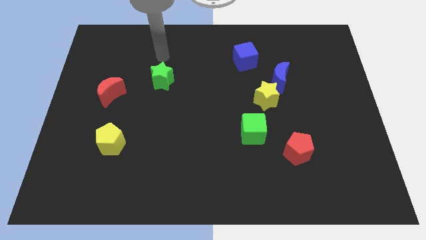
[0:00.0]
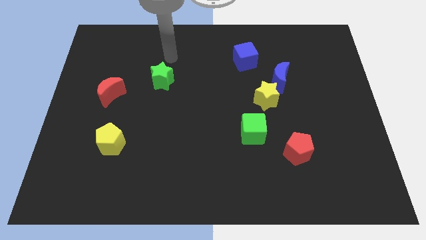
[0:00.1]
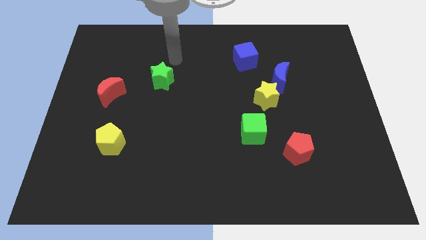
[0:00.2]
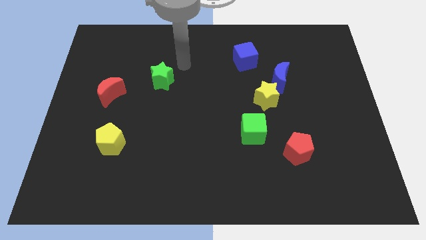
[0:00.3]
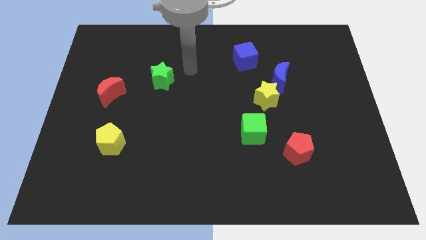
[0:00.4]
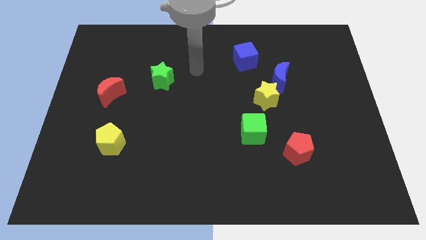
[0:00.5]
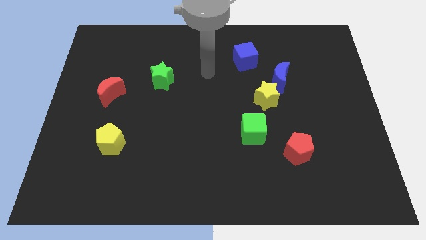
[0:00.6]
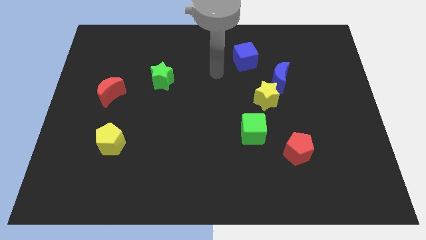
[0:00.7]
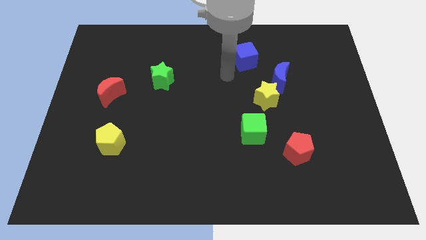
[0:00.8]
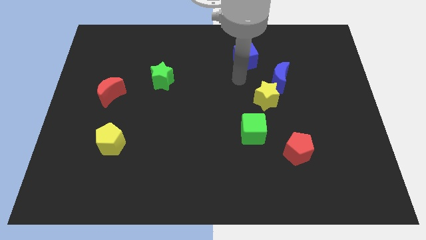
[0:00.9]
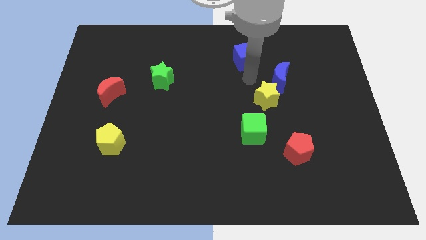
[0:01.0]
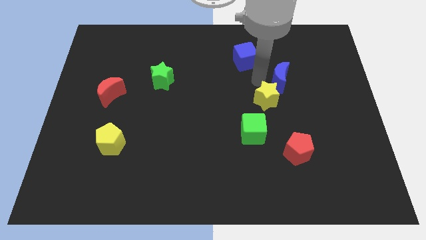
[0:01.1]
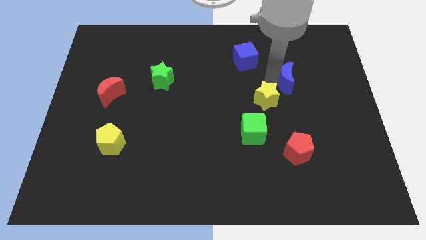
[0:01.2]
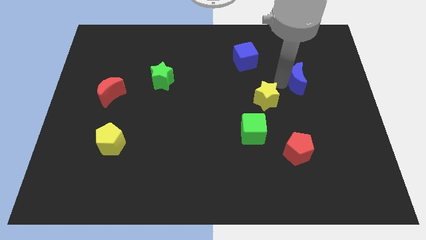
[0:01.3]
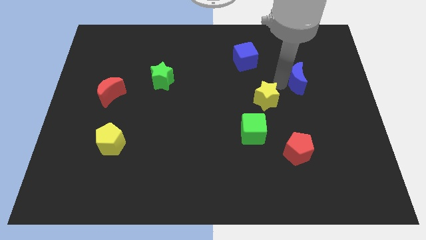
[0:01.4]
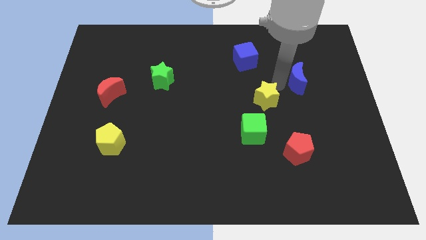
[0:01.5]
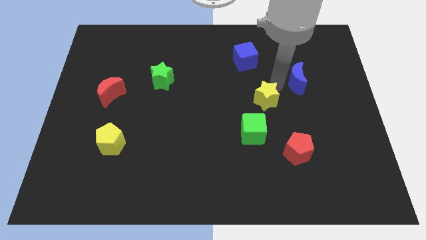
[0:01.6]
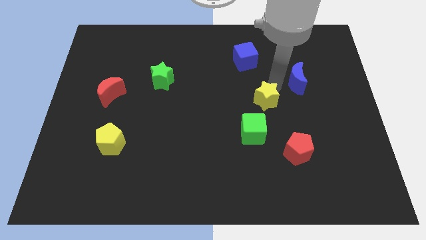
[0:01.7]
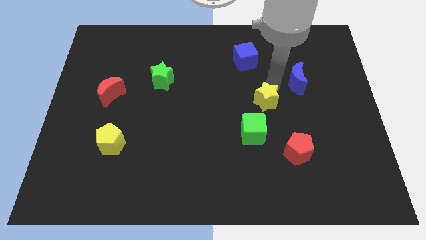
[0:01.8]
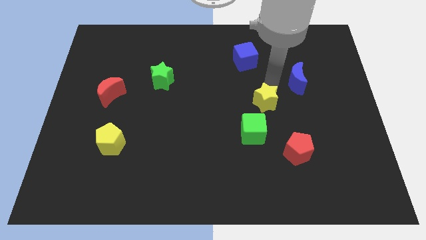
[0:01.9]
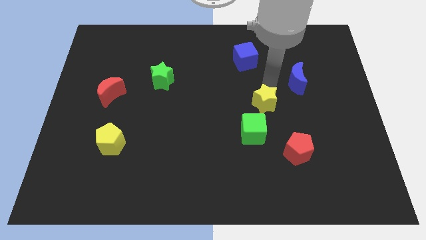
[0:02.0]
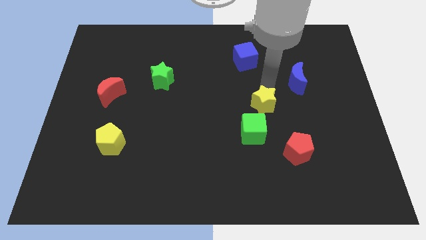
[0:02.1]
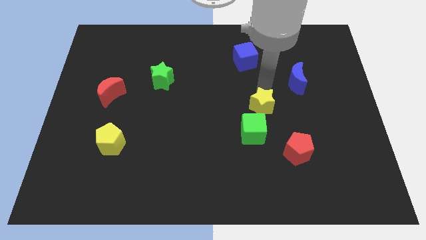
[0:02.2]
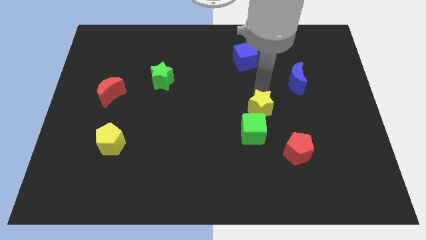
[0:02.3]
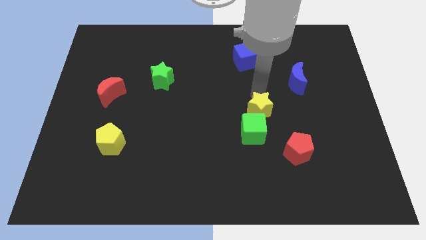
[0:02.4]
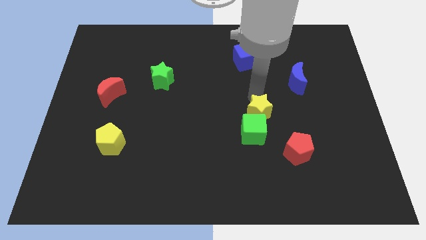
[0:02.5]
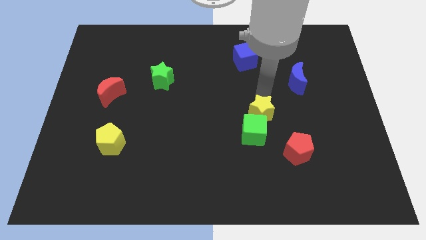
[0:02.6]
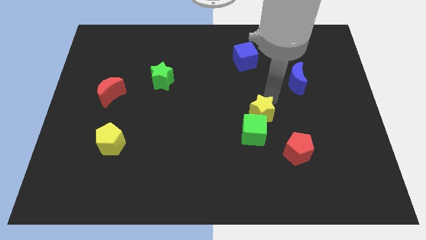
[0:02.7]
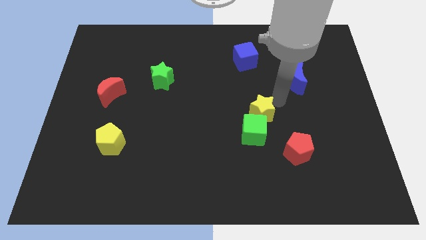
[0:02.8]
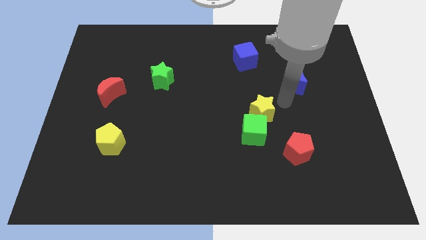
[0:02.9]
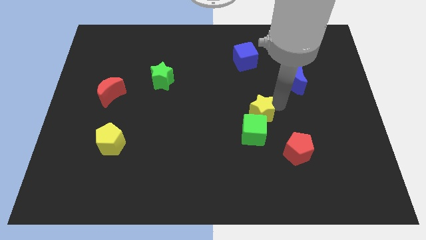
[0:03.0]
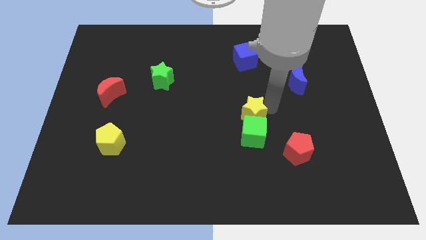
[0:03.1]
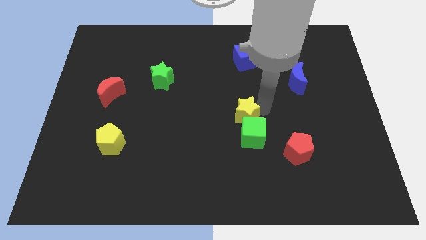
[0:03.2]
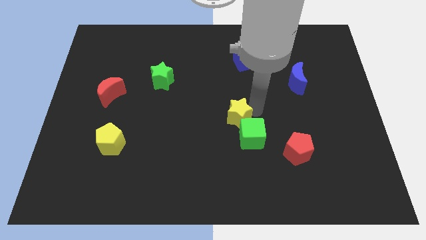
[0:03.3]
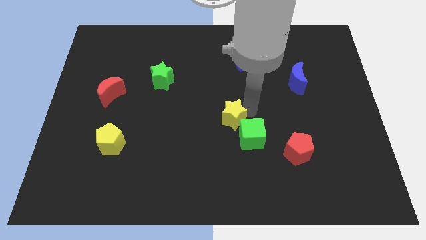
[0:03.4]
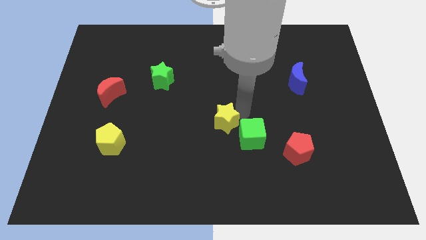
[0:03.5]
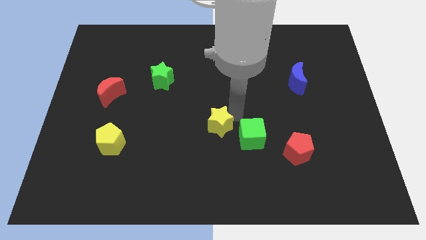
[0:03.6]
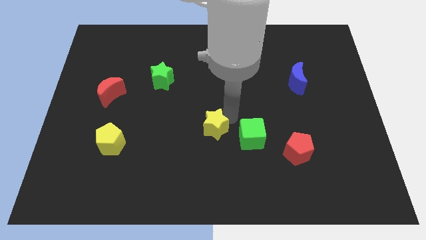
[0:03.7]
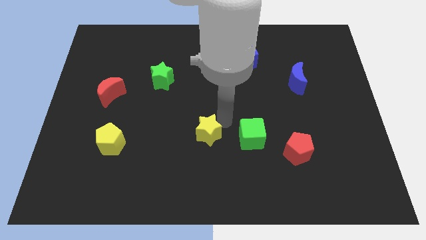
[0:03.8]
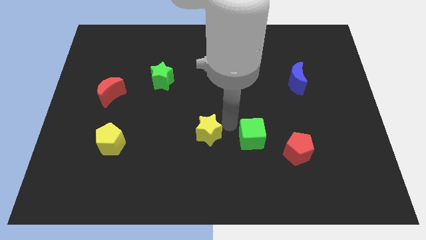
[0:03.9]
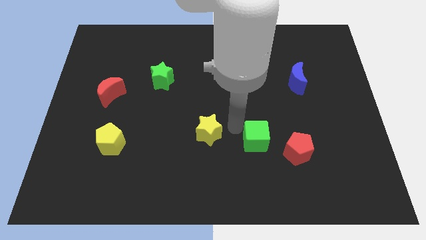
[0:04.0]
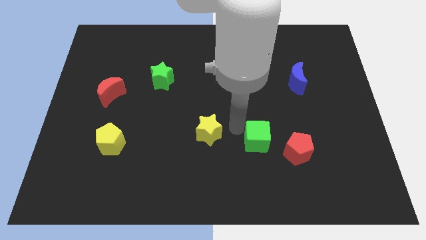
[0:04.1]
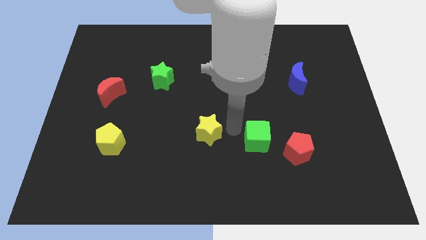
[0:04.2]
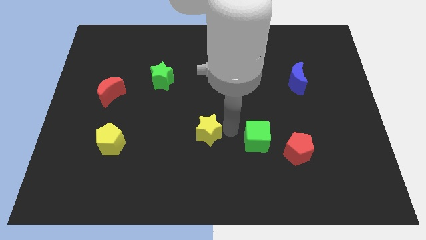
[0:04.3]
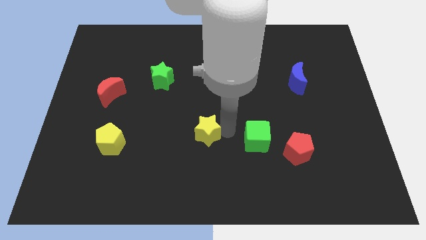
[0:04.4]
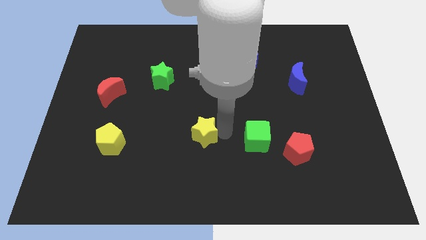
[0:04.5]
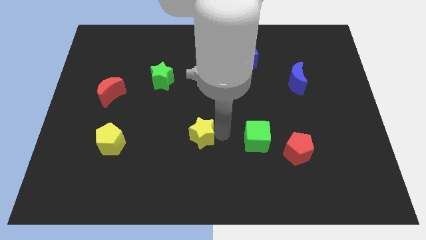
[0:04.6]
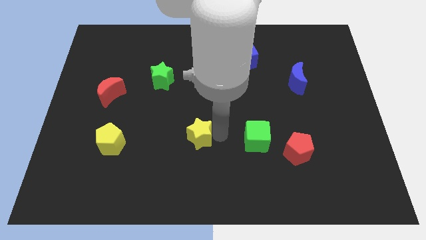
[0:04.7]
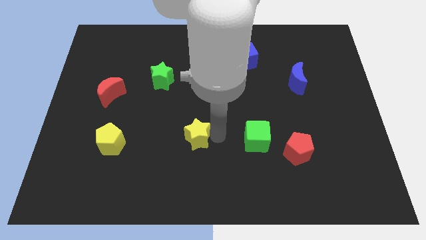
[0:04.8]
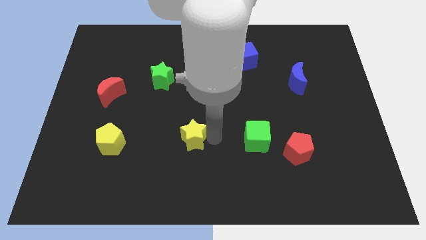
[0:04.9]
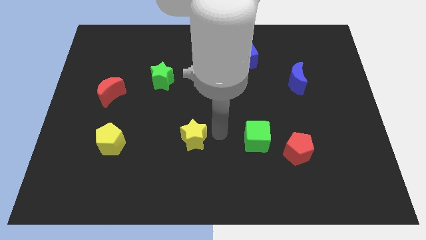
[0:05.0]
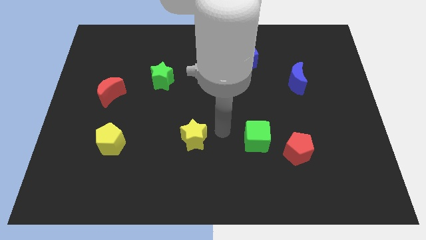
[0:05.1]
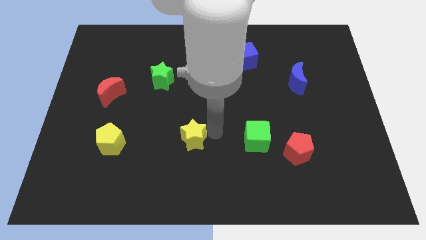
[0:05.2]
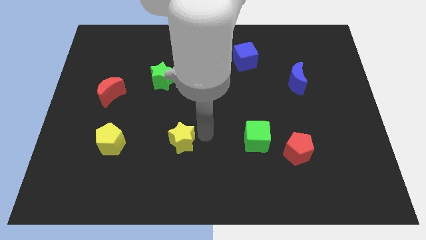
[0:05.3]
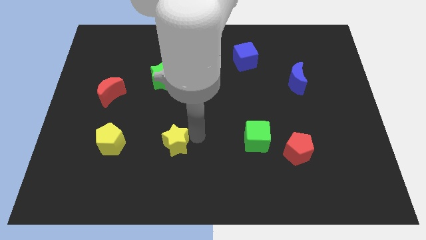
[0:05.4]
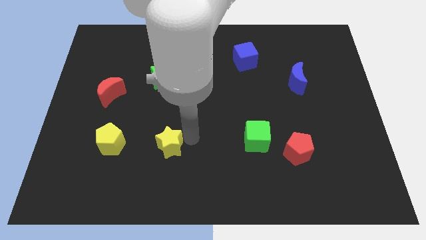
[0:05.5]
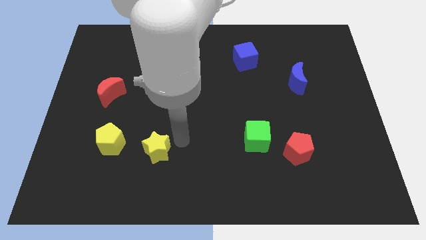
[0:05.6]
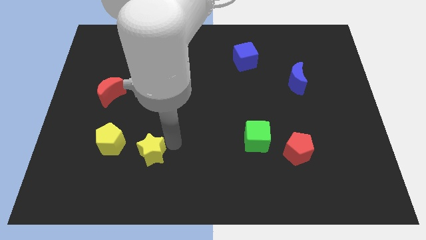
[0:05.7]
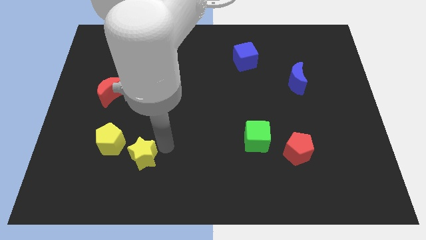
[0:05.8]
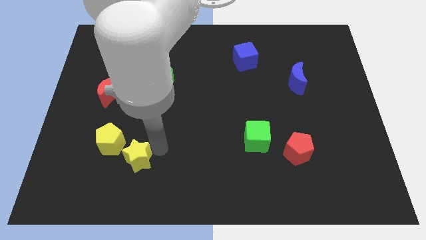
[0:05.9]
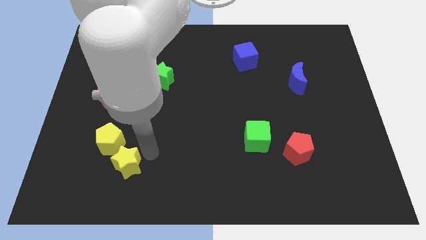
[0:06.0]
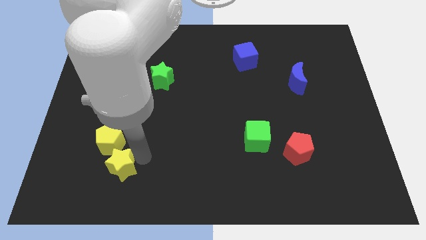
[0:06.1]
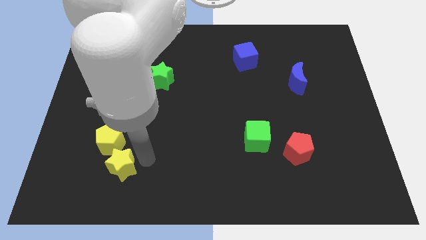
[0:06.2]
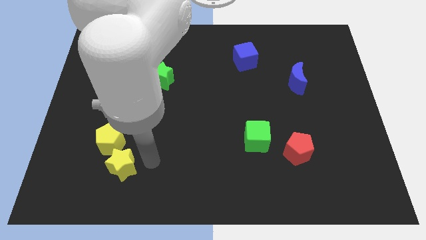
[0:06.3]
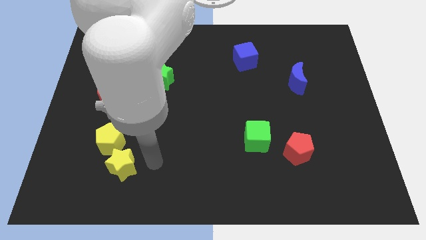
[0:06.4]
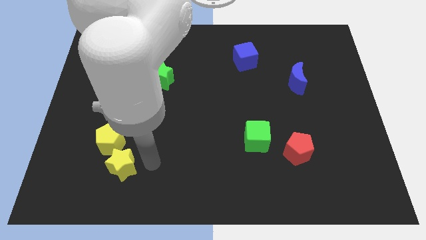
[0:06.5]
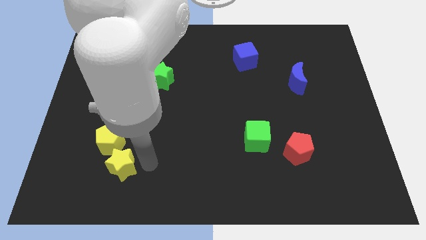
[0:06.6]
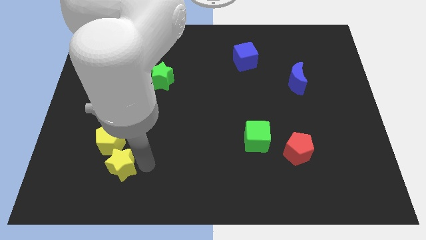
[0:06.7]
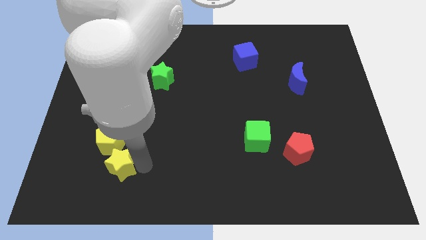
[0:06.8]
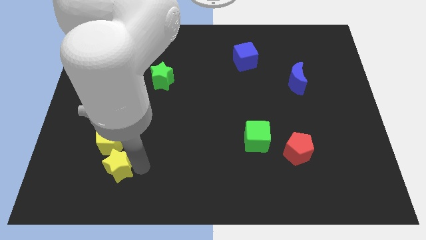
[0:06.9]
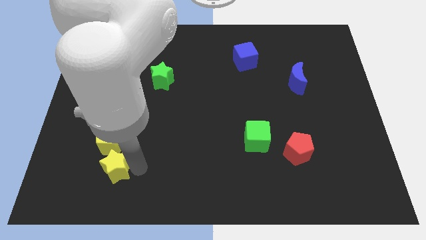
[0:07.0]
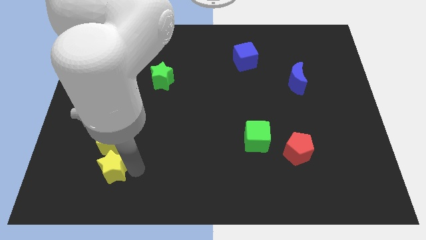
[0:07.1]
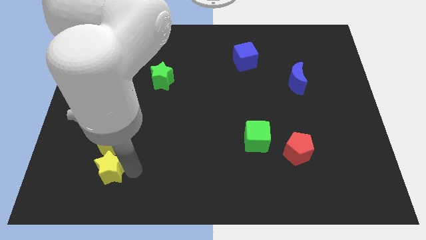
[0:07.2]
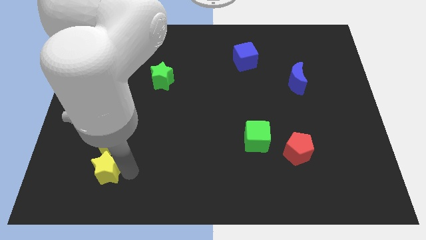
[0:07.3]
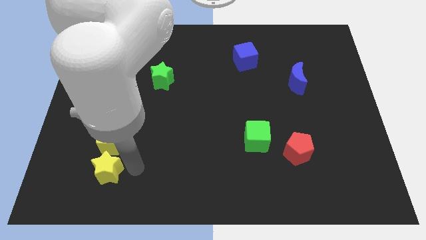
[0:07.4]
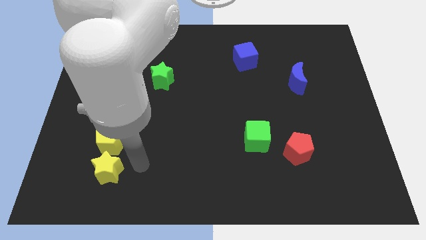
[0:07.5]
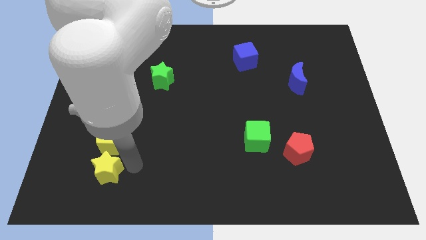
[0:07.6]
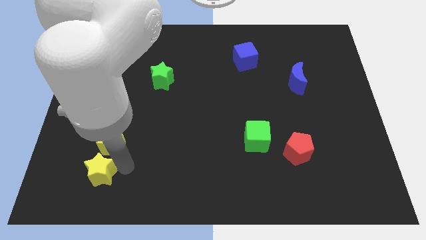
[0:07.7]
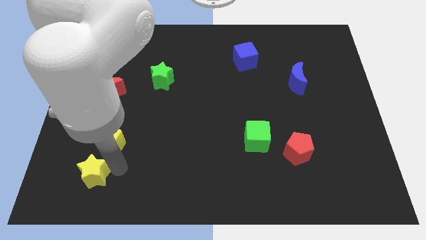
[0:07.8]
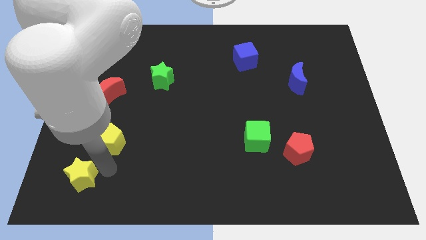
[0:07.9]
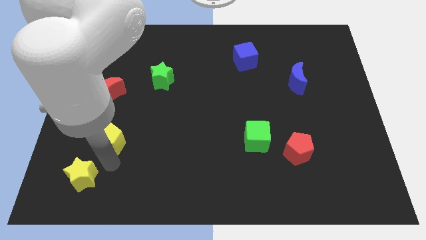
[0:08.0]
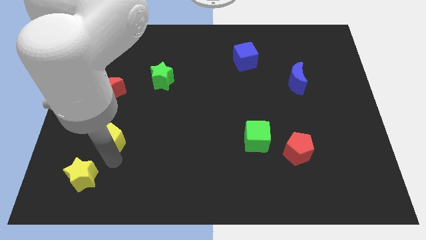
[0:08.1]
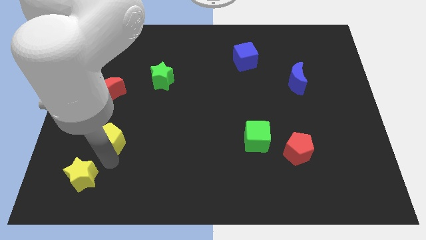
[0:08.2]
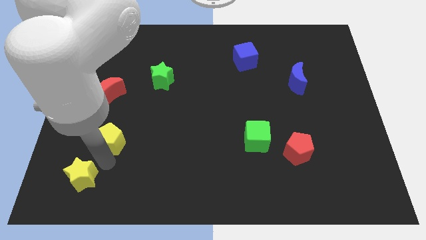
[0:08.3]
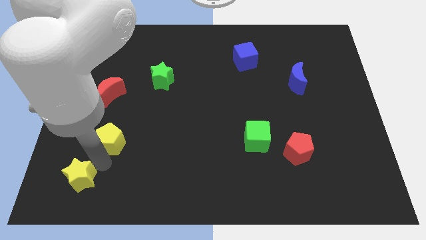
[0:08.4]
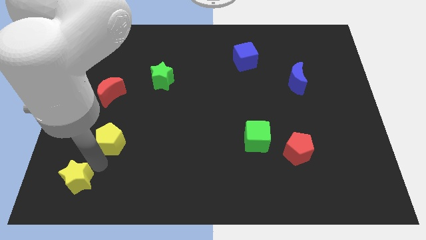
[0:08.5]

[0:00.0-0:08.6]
put the yellow star to the bottom left of the board
